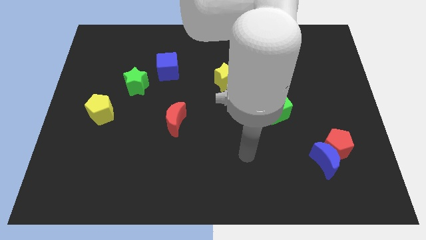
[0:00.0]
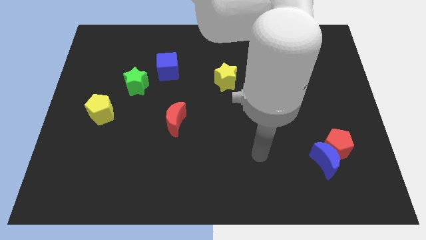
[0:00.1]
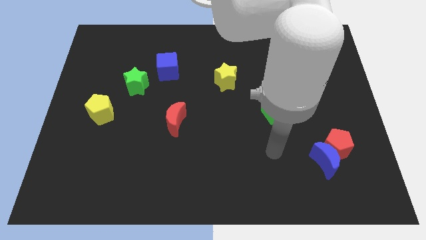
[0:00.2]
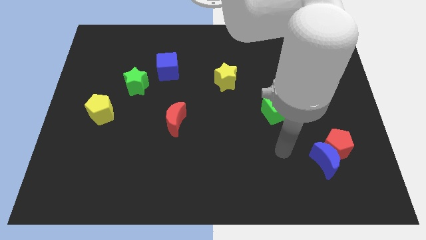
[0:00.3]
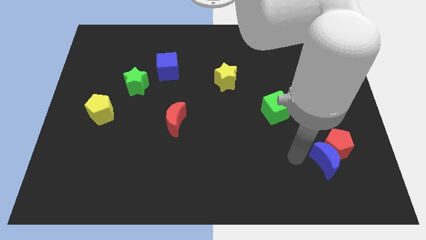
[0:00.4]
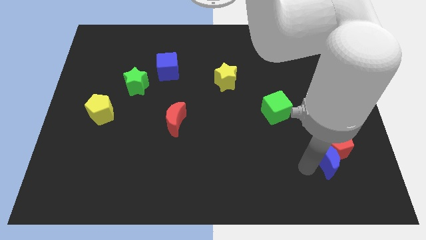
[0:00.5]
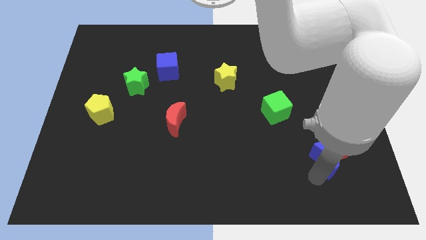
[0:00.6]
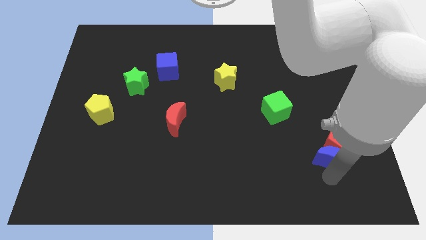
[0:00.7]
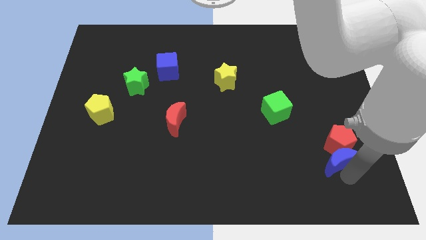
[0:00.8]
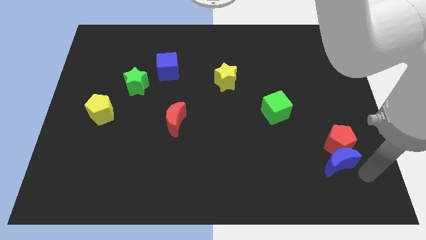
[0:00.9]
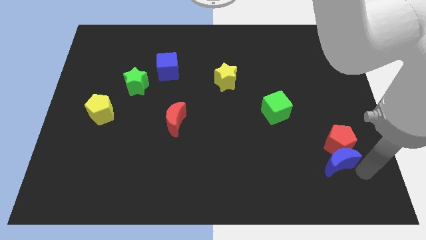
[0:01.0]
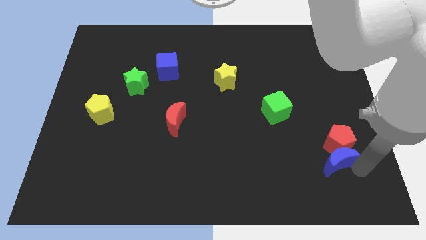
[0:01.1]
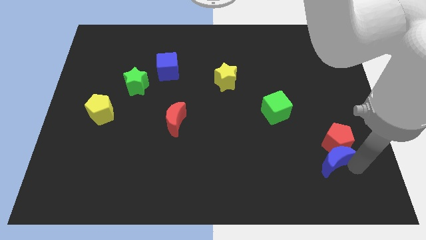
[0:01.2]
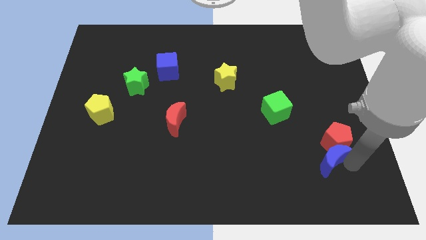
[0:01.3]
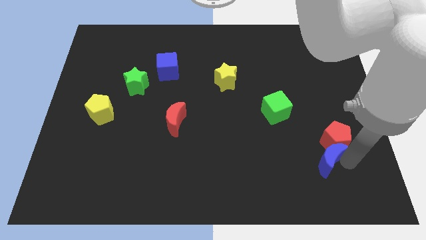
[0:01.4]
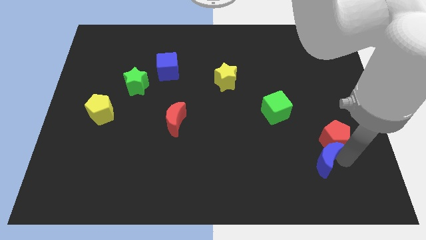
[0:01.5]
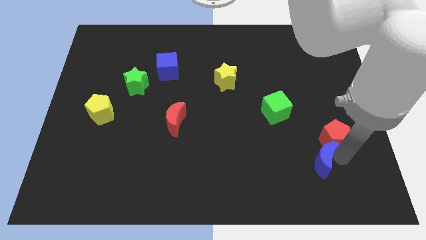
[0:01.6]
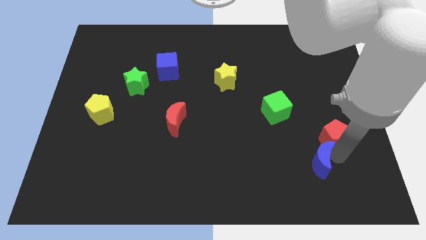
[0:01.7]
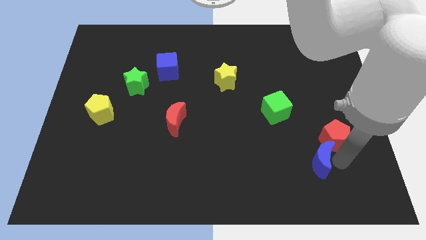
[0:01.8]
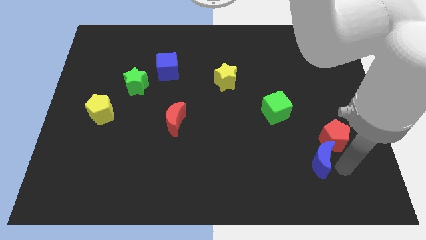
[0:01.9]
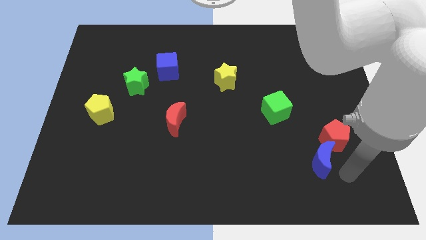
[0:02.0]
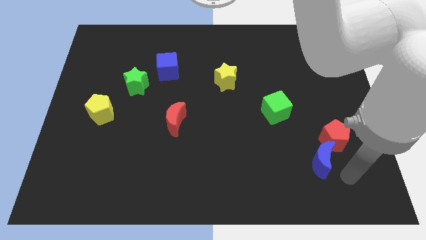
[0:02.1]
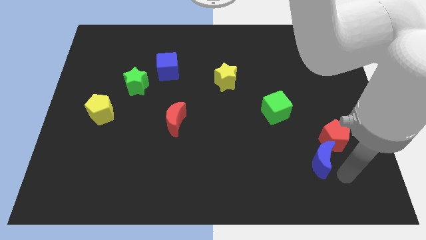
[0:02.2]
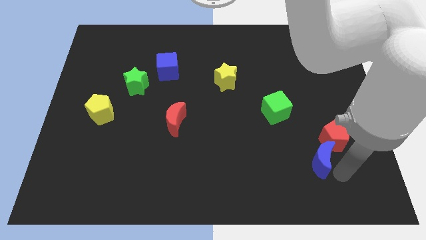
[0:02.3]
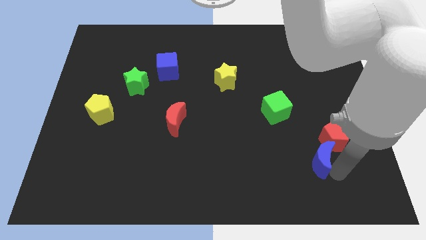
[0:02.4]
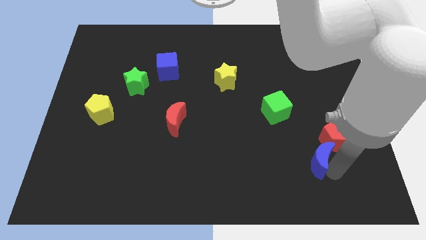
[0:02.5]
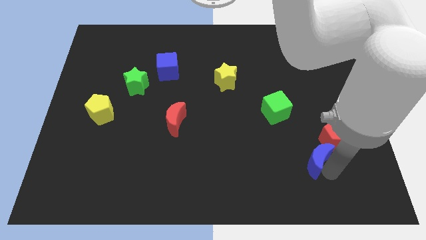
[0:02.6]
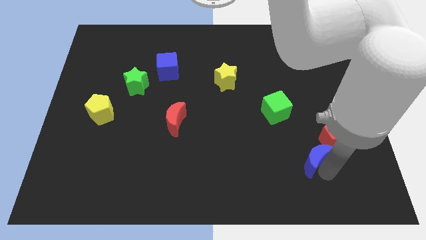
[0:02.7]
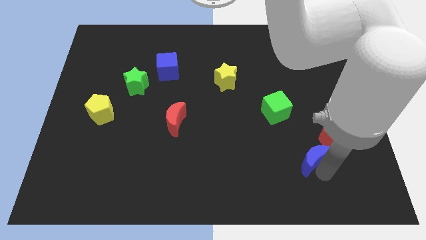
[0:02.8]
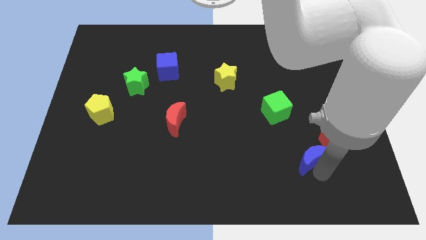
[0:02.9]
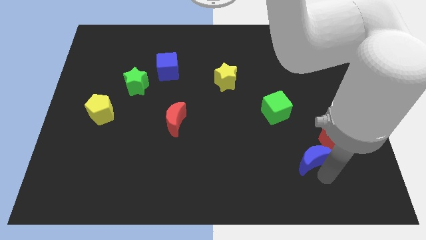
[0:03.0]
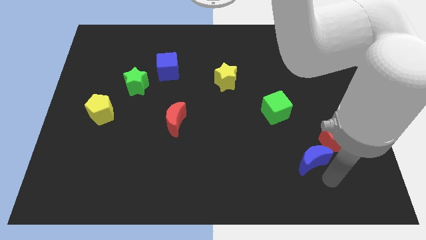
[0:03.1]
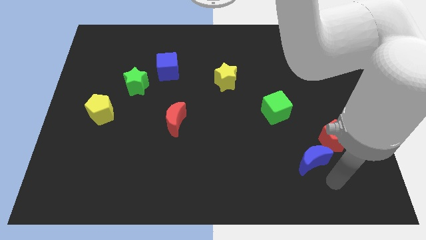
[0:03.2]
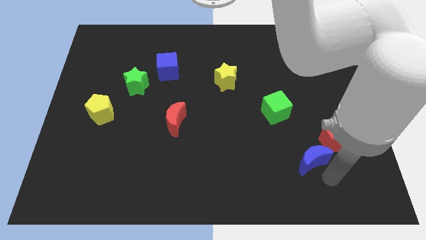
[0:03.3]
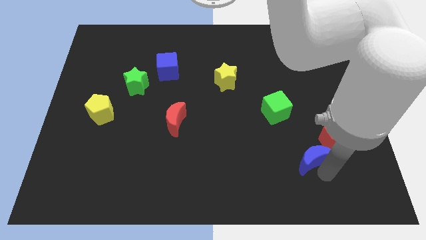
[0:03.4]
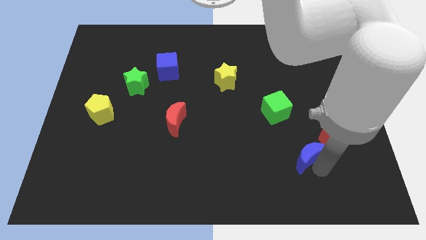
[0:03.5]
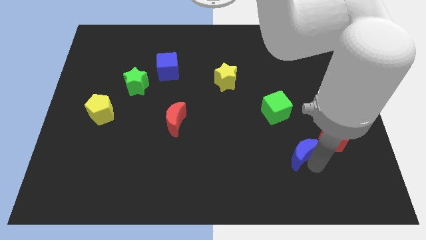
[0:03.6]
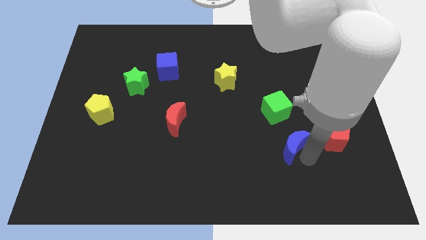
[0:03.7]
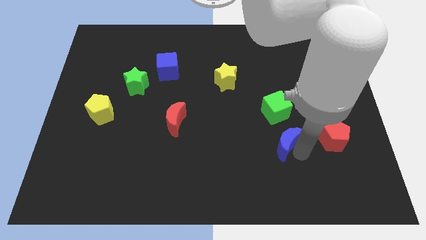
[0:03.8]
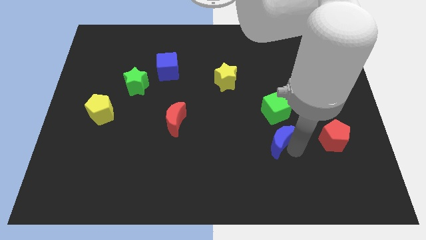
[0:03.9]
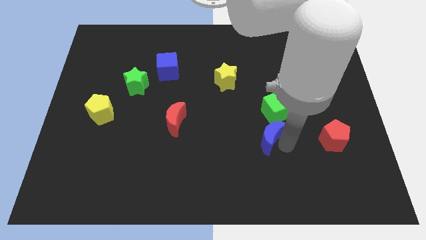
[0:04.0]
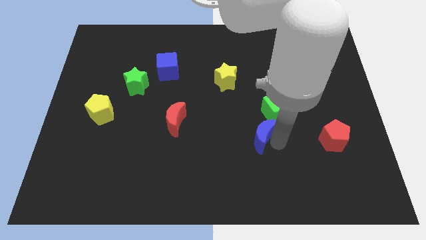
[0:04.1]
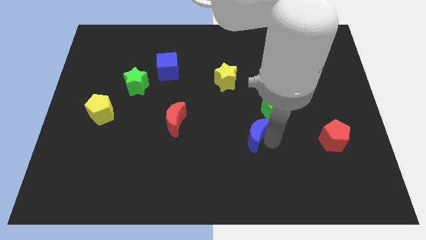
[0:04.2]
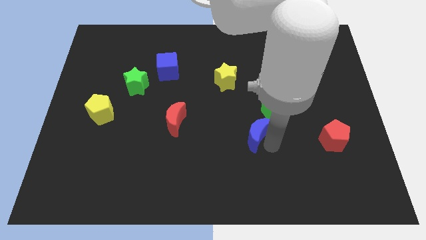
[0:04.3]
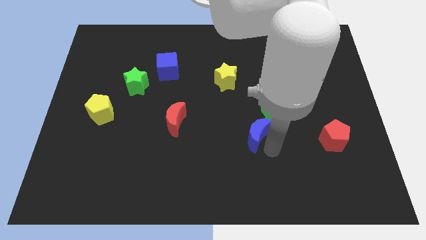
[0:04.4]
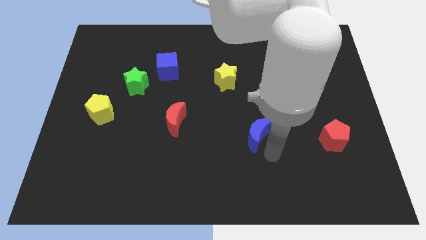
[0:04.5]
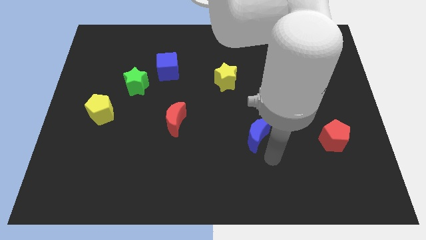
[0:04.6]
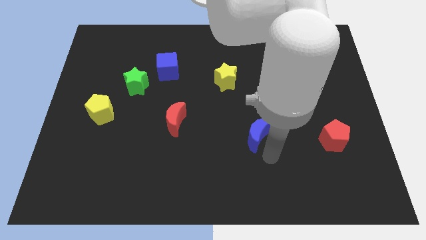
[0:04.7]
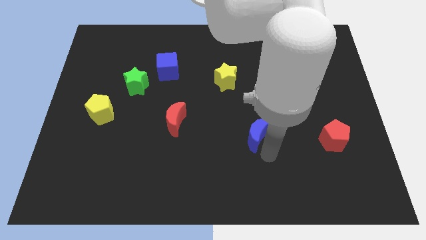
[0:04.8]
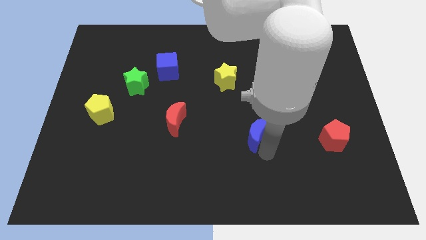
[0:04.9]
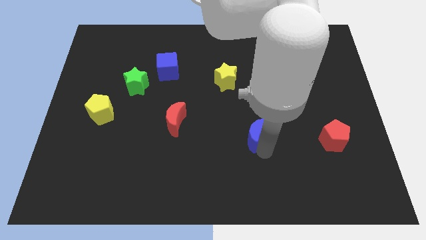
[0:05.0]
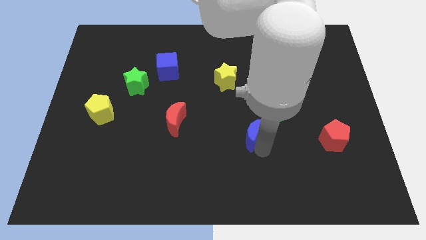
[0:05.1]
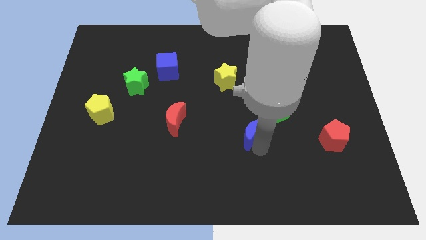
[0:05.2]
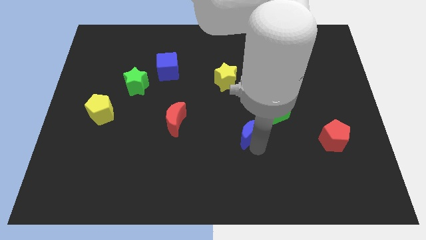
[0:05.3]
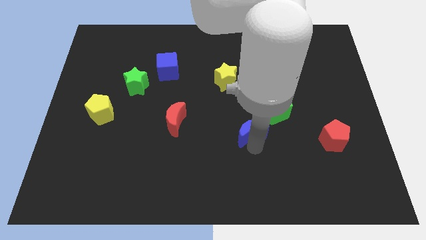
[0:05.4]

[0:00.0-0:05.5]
push the blue moon to the middle of the board

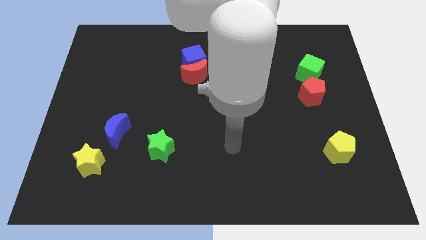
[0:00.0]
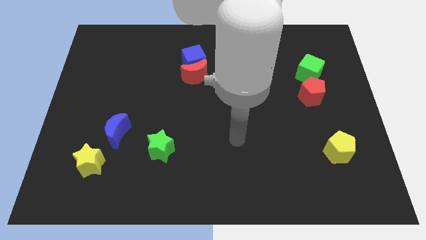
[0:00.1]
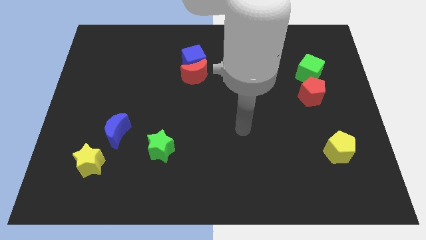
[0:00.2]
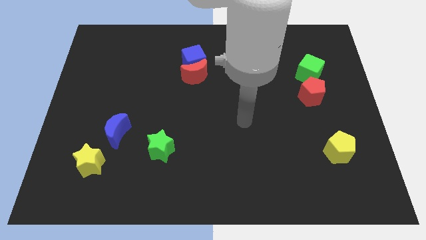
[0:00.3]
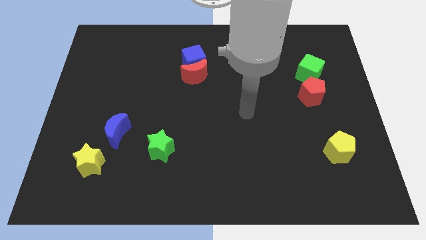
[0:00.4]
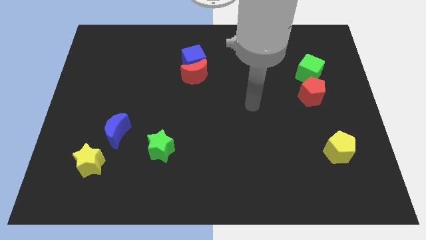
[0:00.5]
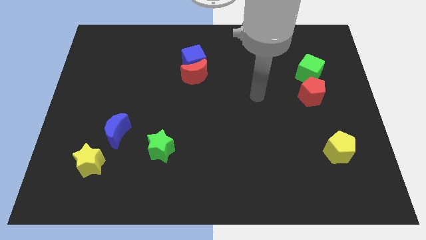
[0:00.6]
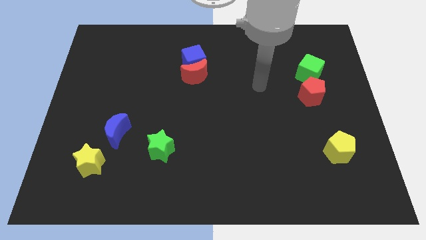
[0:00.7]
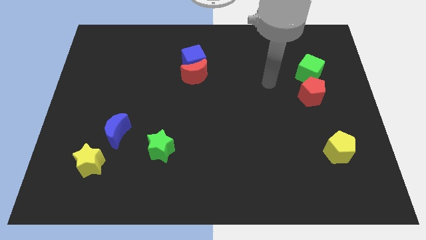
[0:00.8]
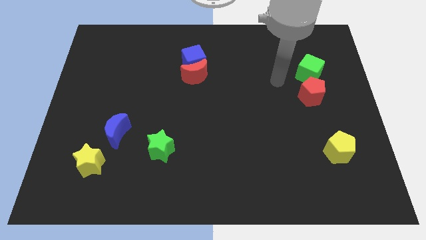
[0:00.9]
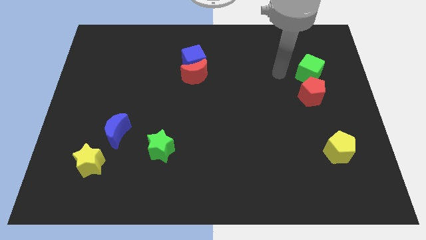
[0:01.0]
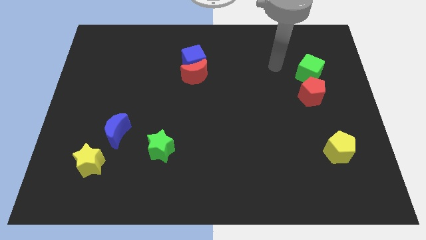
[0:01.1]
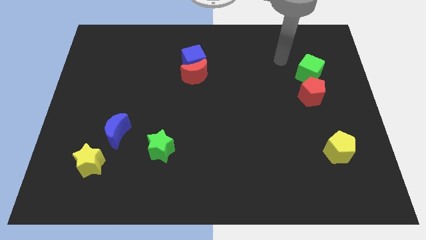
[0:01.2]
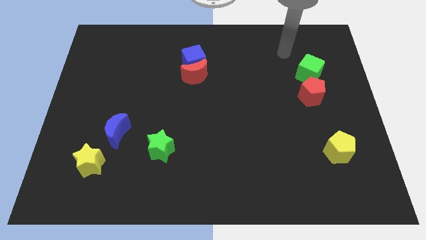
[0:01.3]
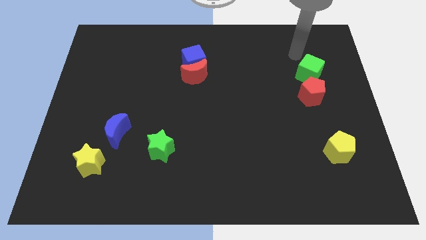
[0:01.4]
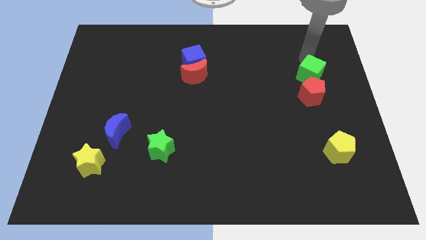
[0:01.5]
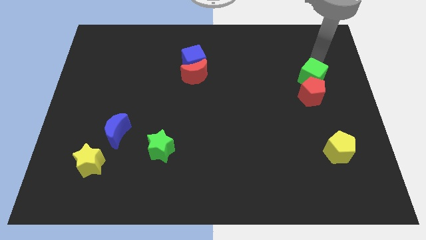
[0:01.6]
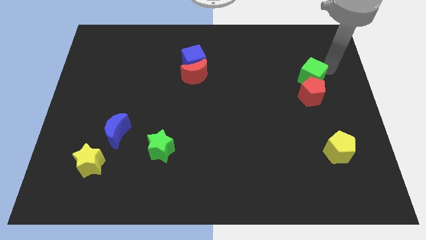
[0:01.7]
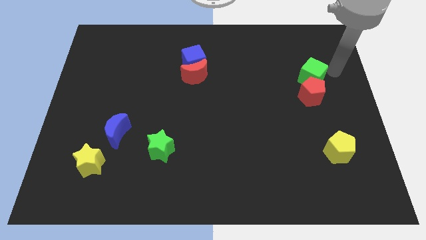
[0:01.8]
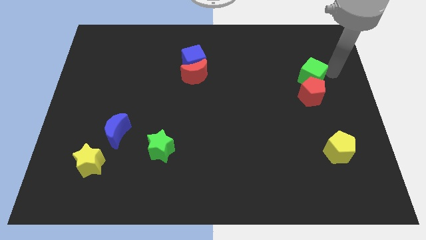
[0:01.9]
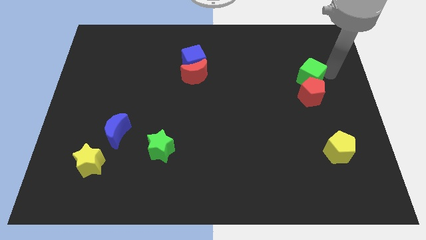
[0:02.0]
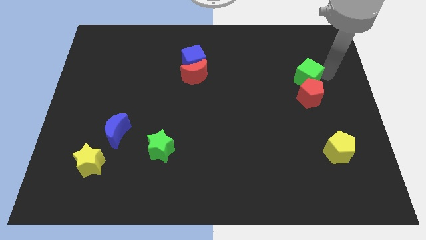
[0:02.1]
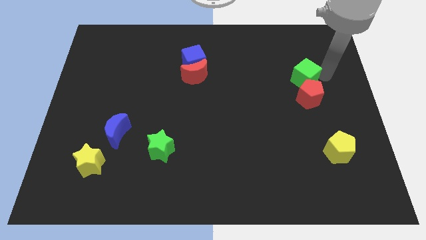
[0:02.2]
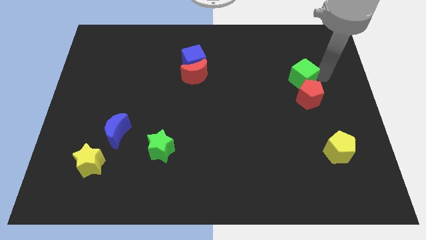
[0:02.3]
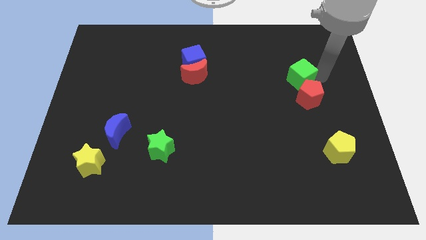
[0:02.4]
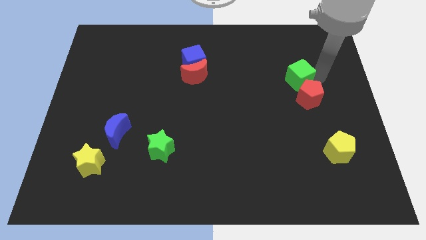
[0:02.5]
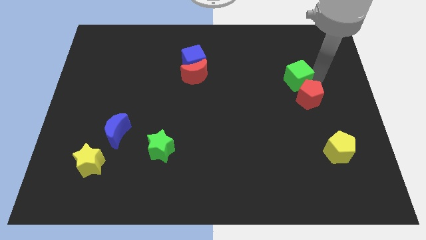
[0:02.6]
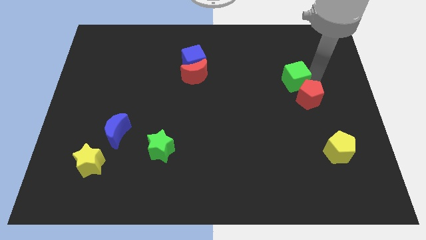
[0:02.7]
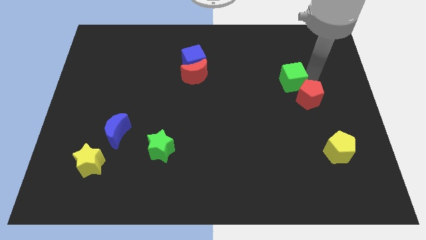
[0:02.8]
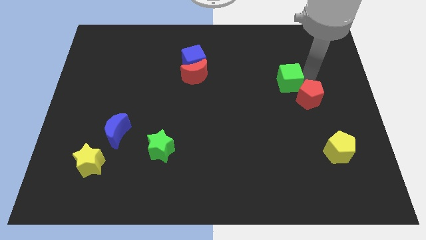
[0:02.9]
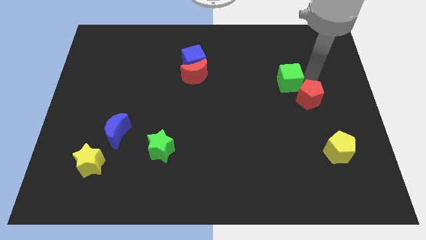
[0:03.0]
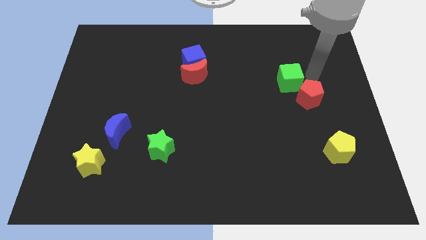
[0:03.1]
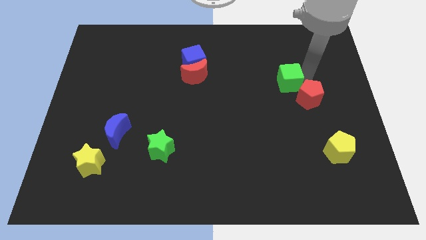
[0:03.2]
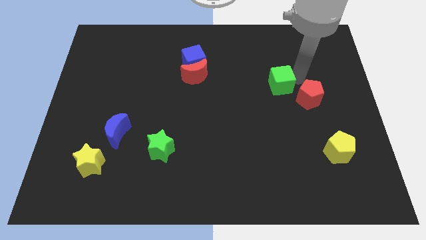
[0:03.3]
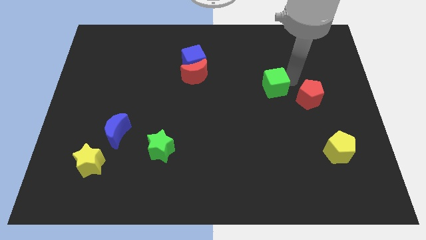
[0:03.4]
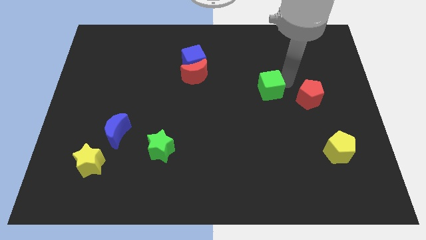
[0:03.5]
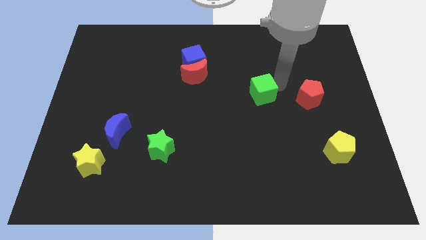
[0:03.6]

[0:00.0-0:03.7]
slide the green cube to the center of the board
